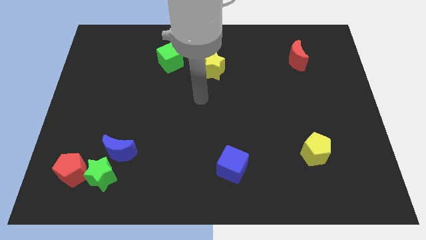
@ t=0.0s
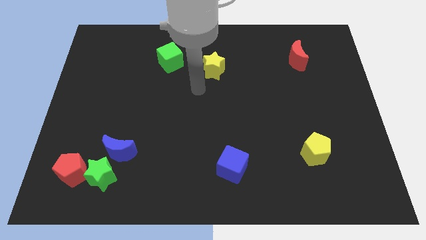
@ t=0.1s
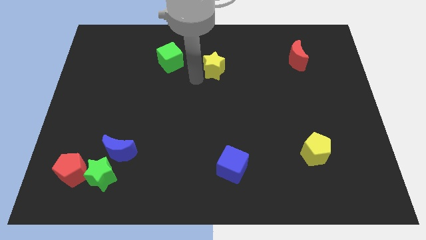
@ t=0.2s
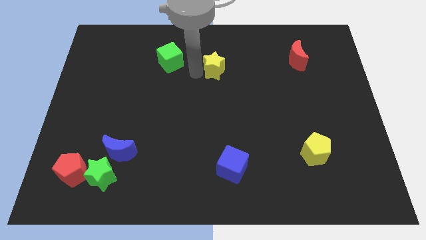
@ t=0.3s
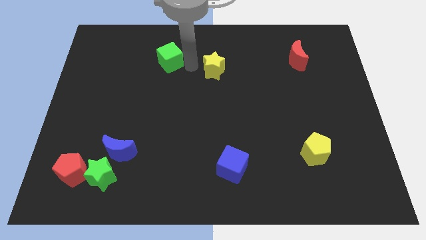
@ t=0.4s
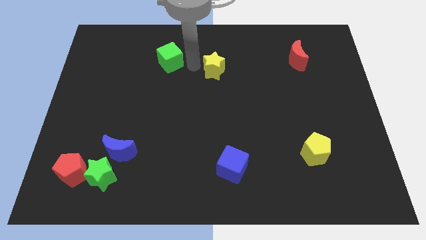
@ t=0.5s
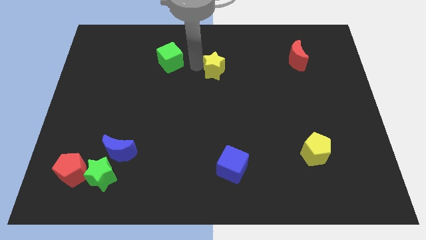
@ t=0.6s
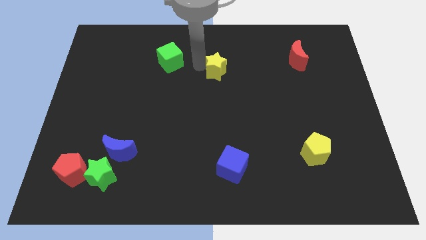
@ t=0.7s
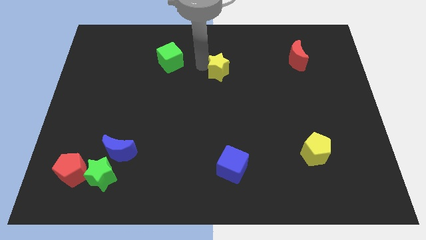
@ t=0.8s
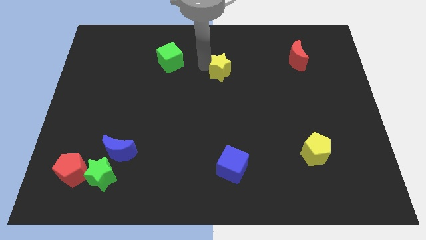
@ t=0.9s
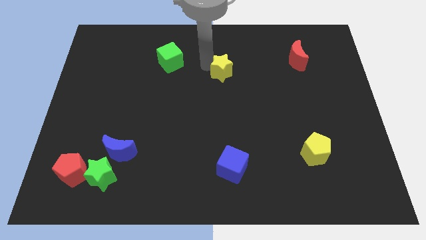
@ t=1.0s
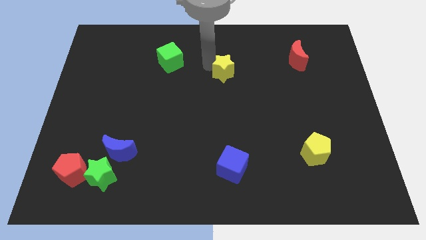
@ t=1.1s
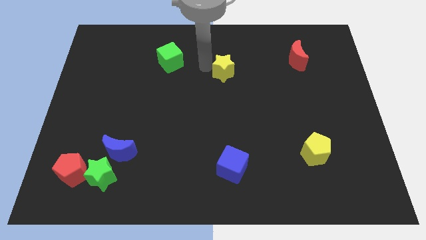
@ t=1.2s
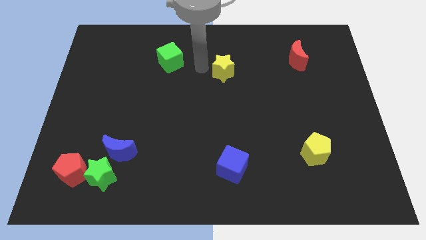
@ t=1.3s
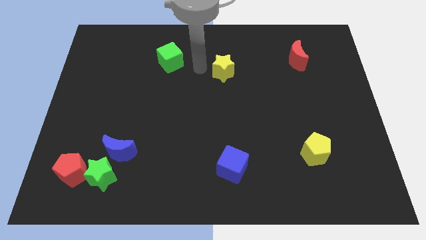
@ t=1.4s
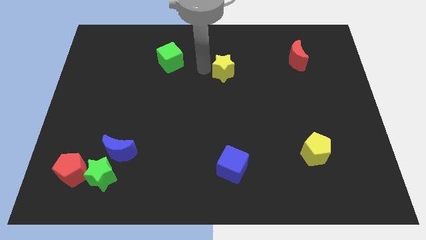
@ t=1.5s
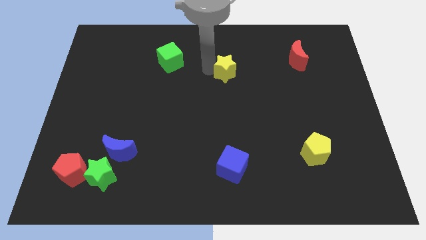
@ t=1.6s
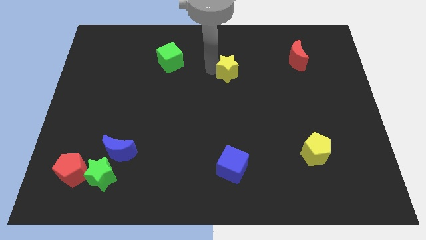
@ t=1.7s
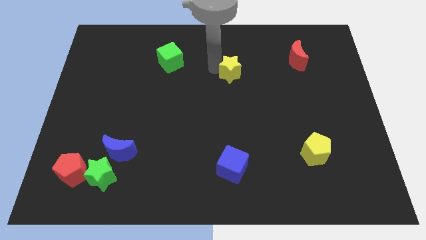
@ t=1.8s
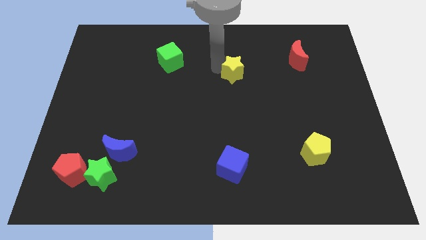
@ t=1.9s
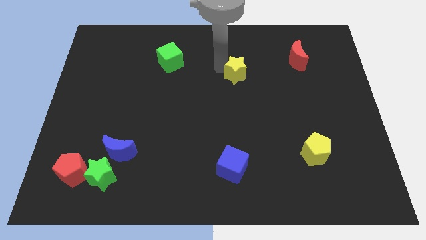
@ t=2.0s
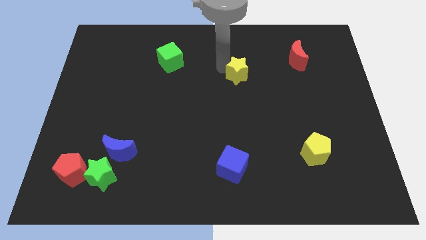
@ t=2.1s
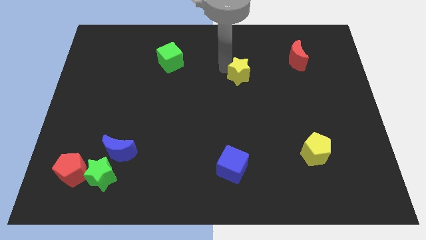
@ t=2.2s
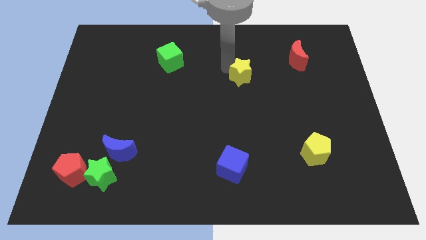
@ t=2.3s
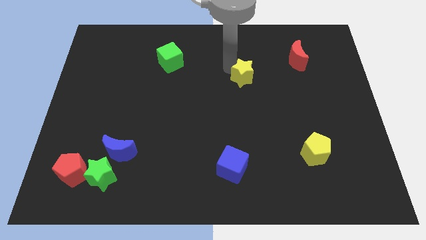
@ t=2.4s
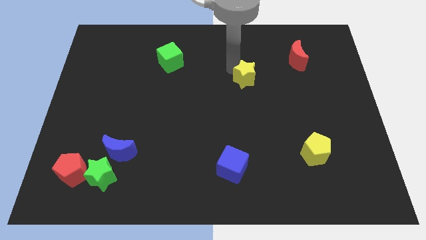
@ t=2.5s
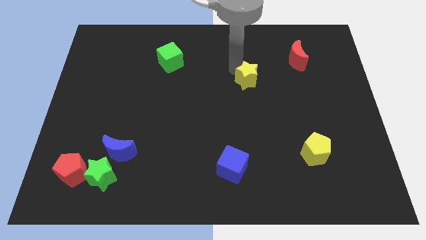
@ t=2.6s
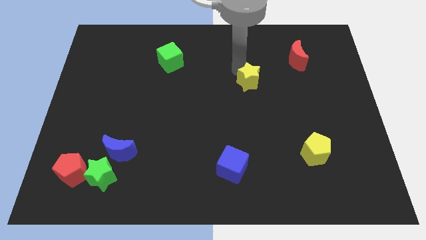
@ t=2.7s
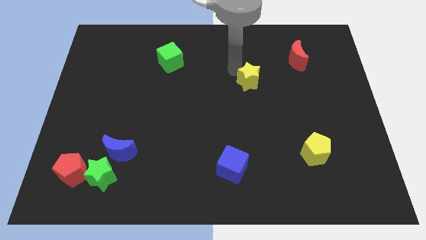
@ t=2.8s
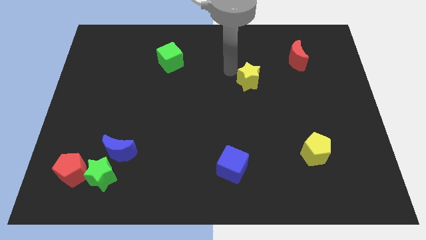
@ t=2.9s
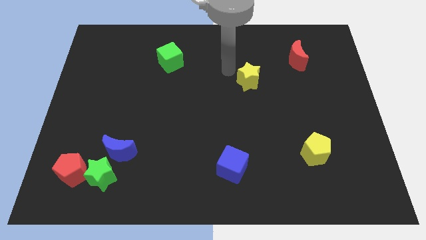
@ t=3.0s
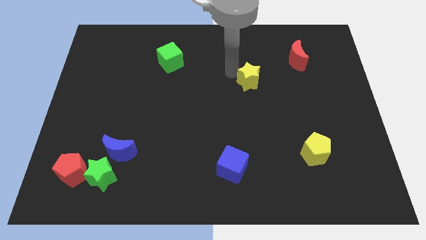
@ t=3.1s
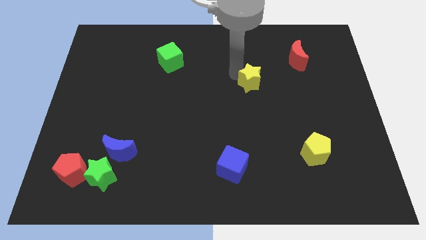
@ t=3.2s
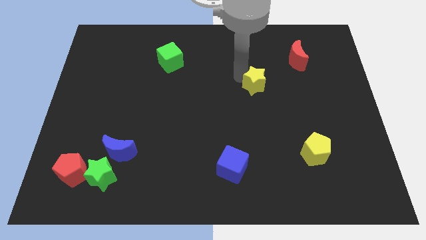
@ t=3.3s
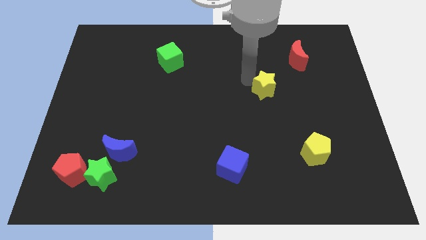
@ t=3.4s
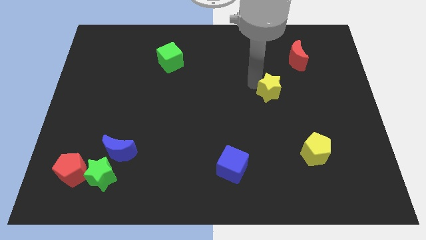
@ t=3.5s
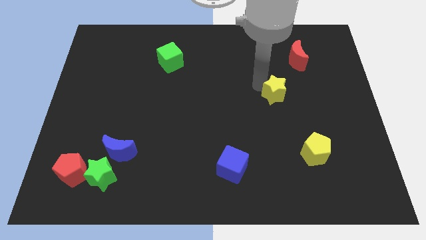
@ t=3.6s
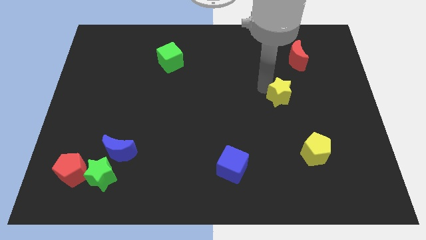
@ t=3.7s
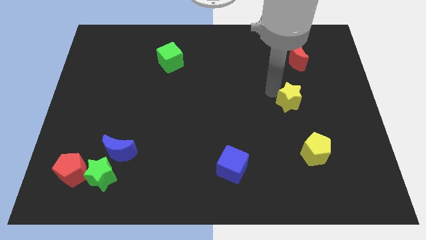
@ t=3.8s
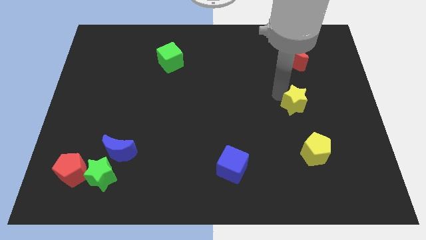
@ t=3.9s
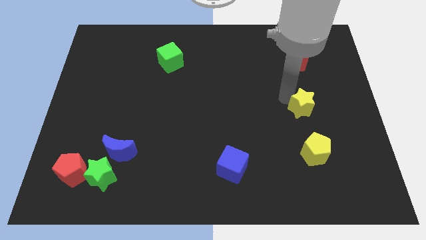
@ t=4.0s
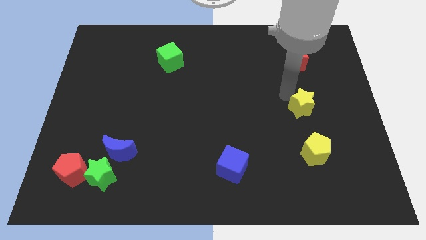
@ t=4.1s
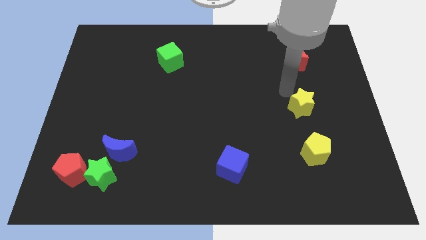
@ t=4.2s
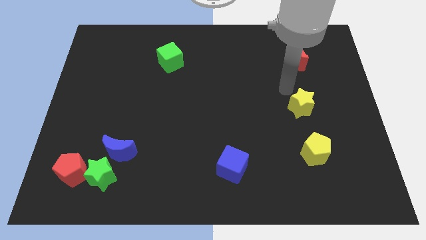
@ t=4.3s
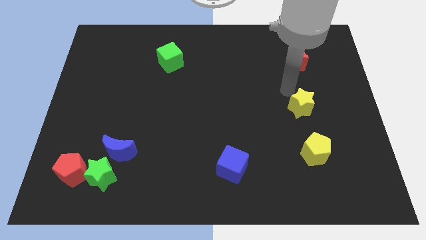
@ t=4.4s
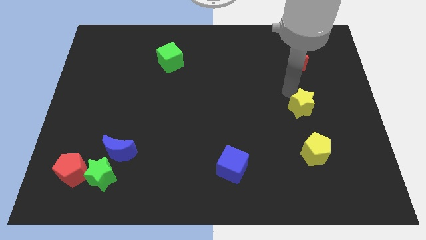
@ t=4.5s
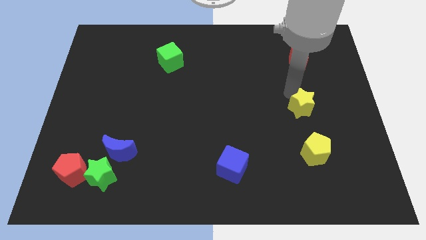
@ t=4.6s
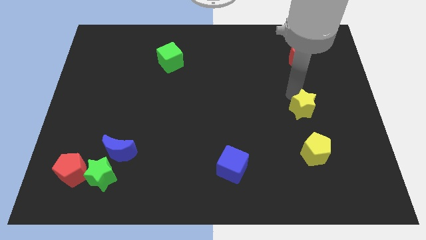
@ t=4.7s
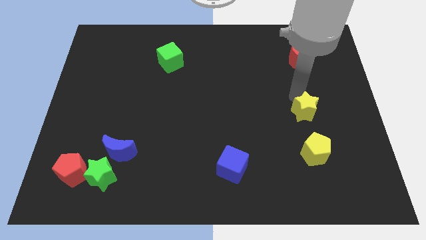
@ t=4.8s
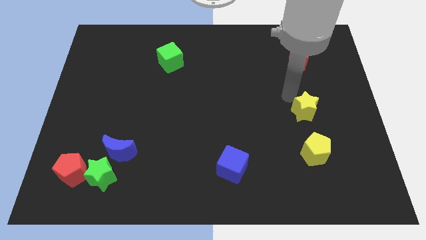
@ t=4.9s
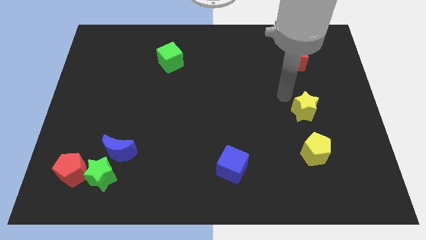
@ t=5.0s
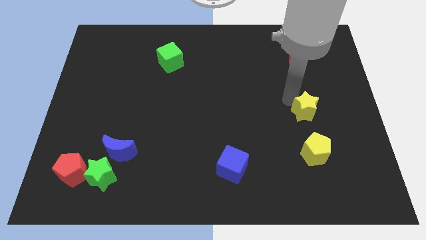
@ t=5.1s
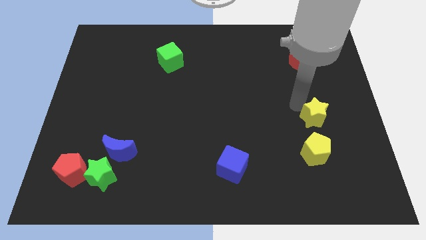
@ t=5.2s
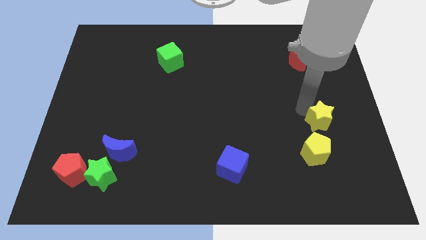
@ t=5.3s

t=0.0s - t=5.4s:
slide the yellow star to the top right side of the yellow pentagon

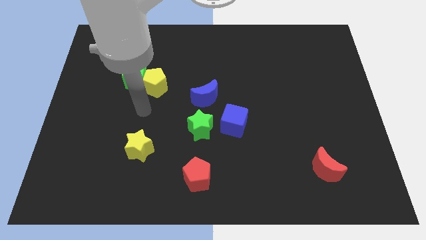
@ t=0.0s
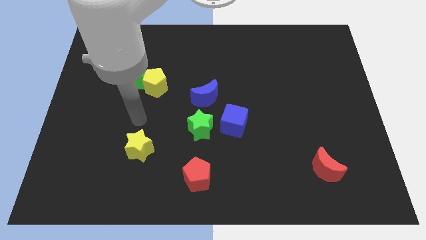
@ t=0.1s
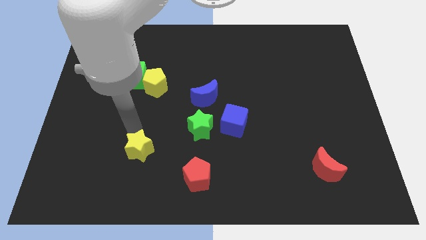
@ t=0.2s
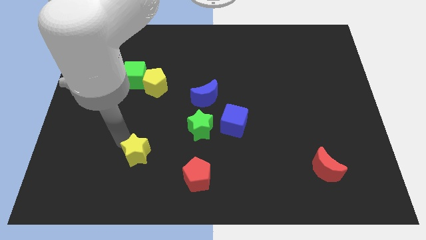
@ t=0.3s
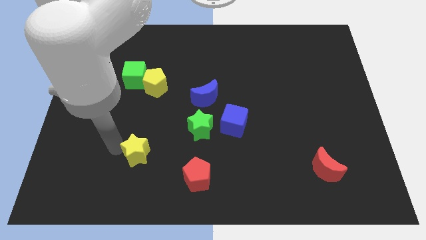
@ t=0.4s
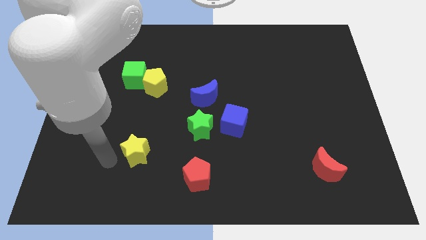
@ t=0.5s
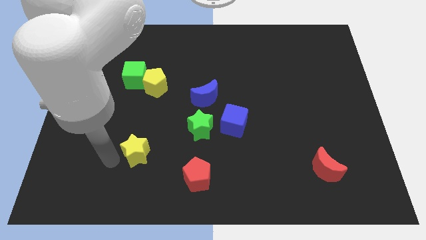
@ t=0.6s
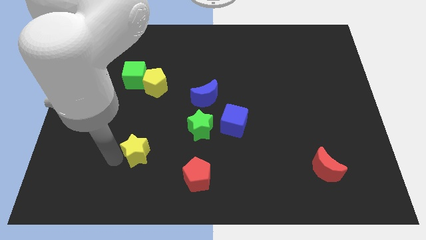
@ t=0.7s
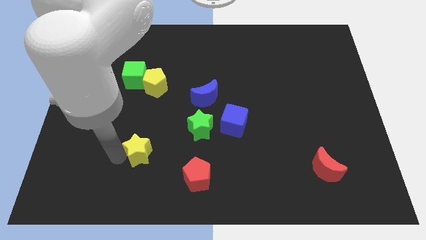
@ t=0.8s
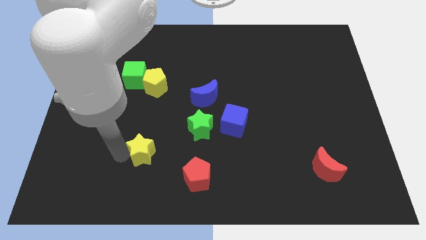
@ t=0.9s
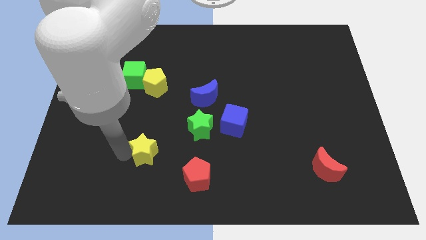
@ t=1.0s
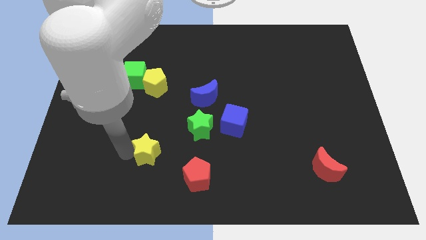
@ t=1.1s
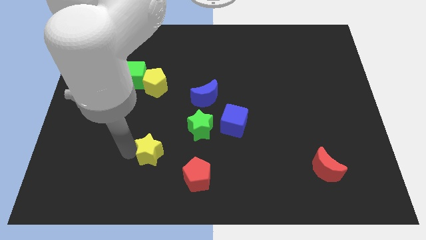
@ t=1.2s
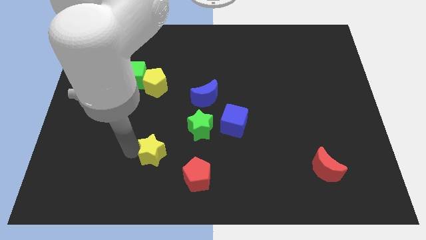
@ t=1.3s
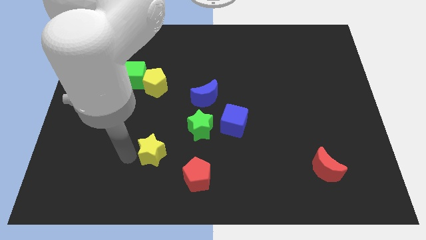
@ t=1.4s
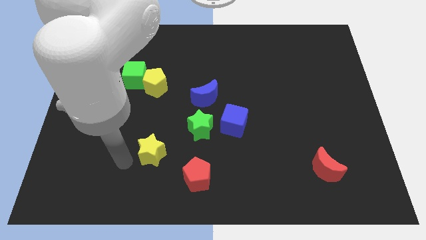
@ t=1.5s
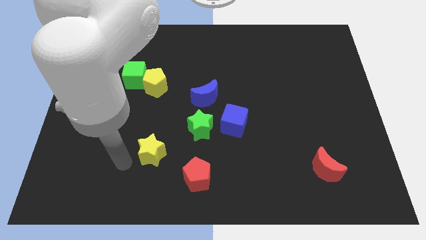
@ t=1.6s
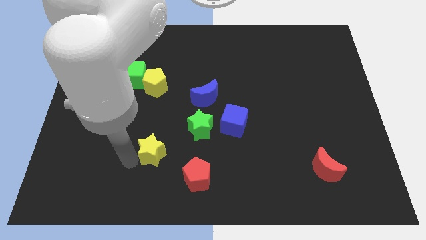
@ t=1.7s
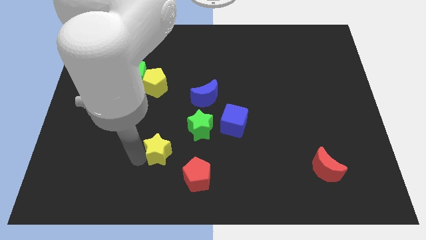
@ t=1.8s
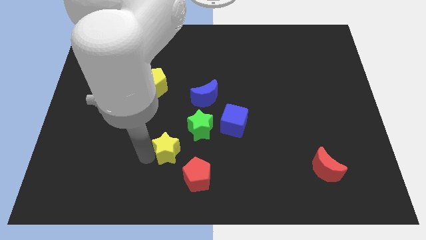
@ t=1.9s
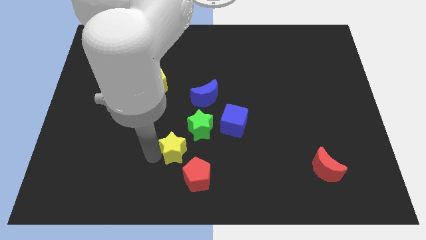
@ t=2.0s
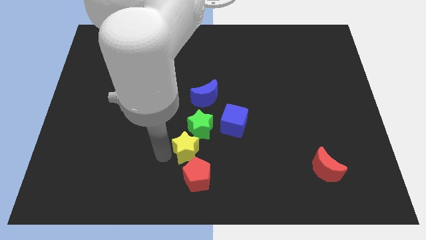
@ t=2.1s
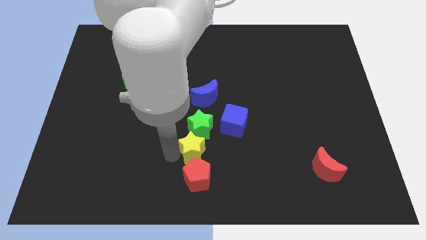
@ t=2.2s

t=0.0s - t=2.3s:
push the yellow star to the bottom of the blue moon

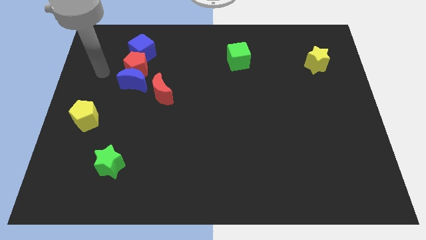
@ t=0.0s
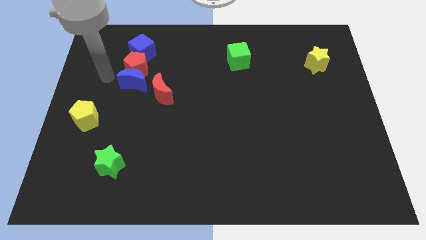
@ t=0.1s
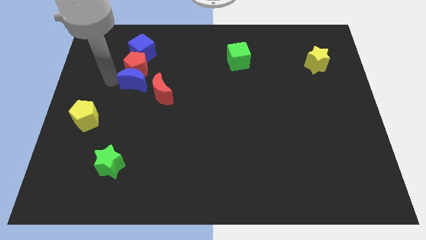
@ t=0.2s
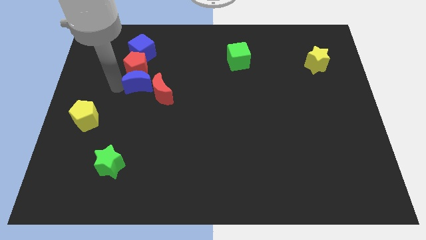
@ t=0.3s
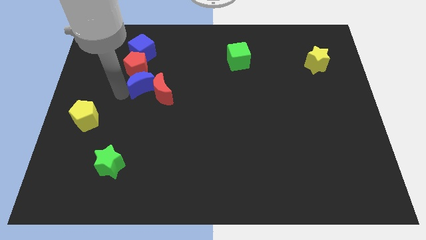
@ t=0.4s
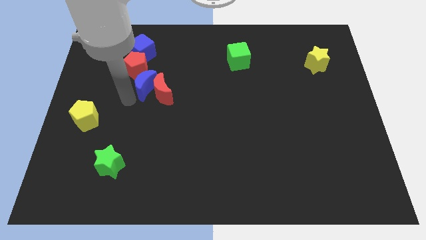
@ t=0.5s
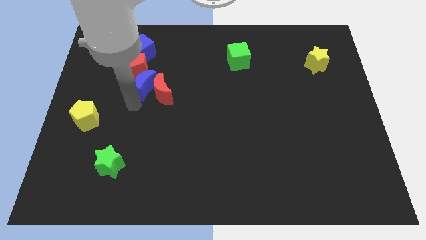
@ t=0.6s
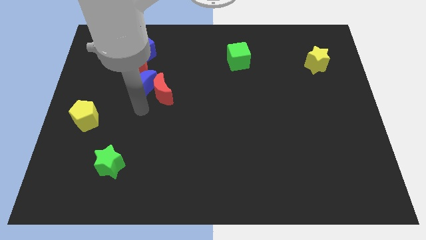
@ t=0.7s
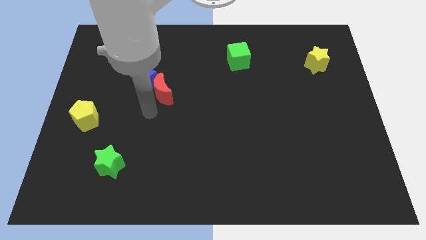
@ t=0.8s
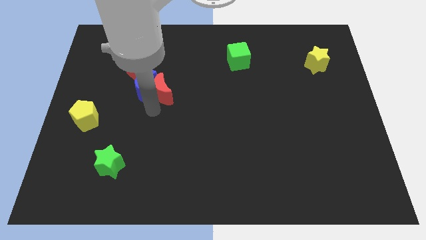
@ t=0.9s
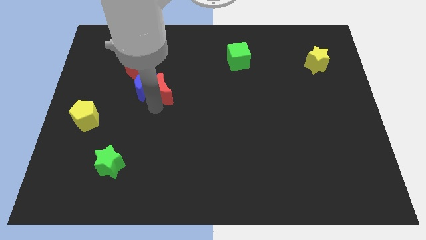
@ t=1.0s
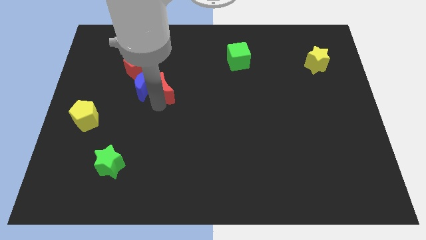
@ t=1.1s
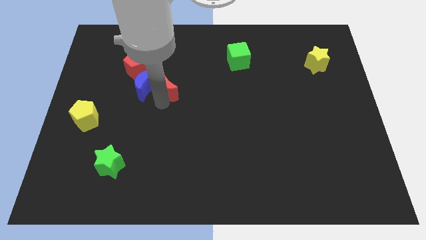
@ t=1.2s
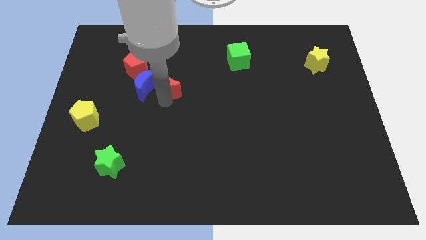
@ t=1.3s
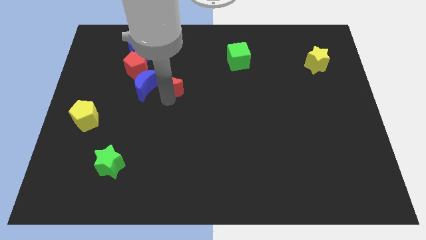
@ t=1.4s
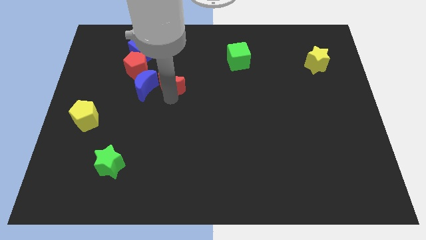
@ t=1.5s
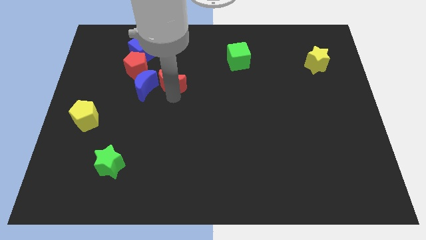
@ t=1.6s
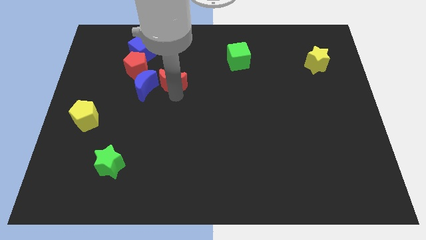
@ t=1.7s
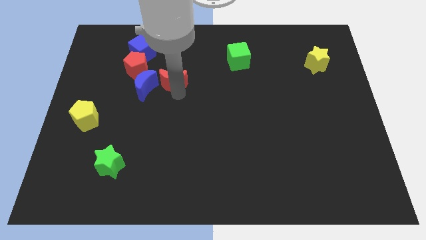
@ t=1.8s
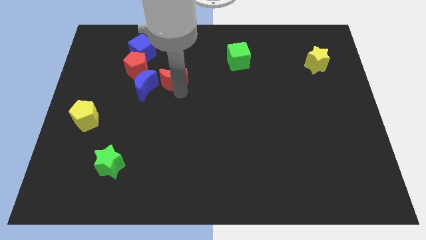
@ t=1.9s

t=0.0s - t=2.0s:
push the red moon to the right of the red pentagon
